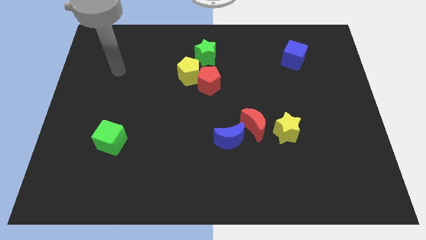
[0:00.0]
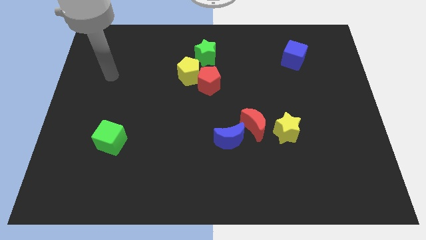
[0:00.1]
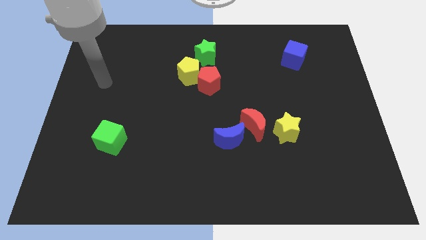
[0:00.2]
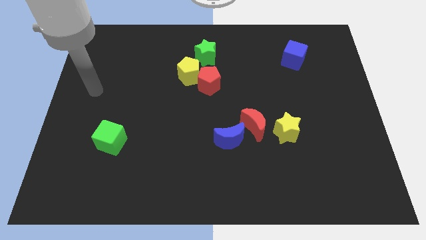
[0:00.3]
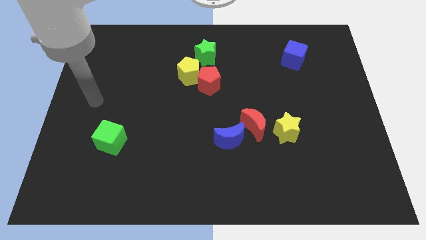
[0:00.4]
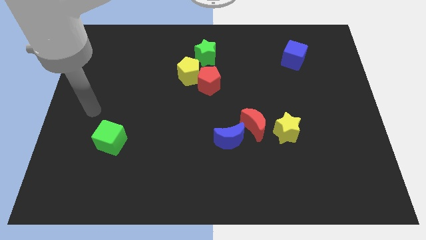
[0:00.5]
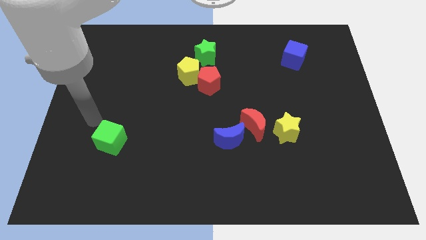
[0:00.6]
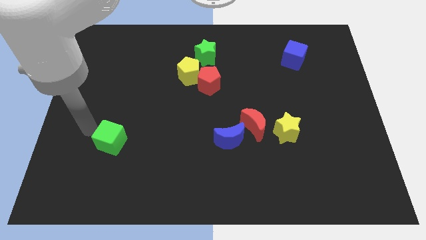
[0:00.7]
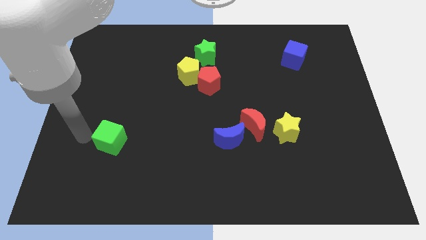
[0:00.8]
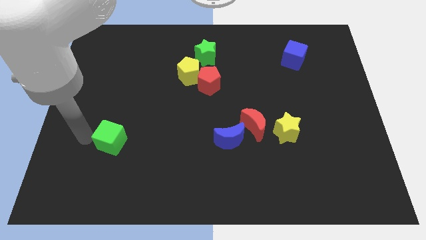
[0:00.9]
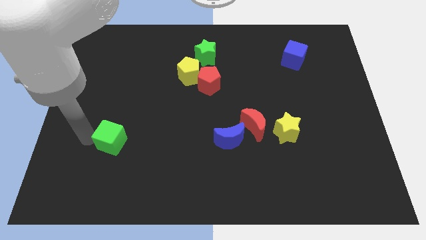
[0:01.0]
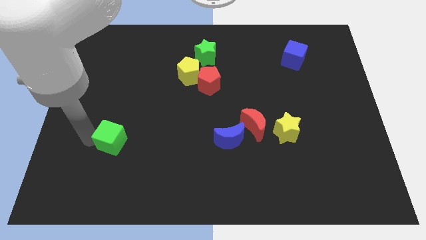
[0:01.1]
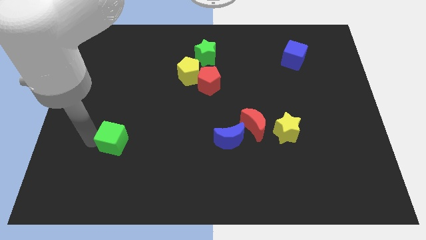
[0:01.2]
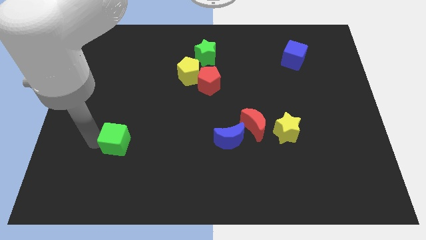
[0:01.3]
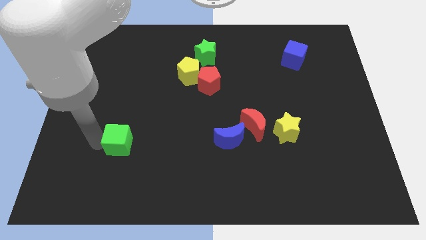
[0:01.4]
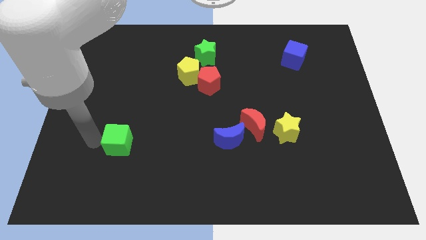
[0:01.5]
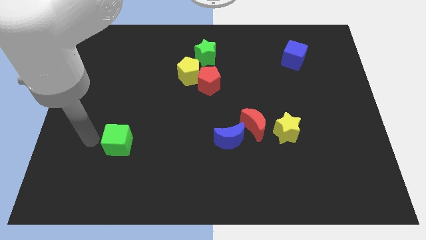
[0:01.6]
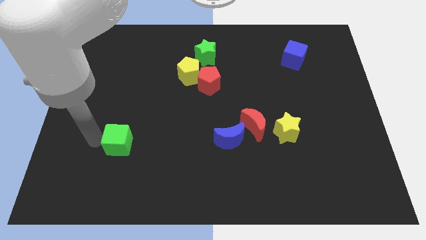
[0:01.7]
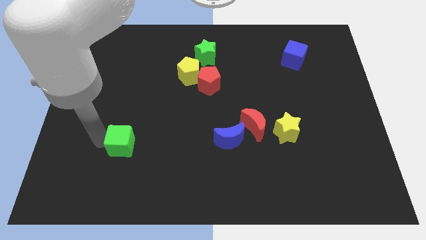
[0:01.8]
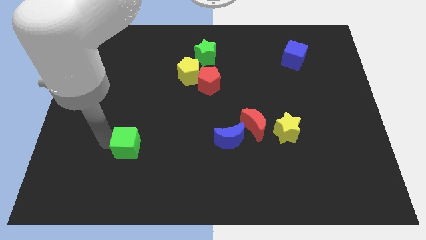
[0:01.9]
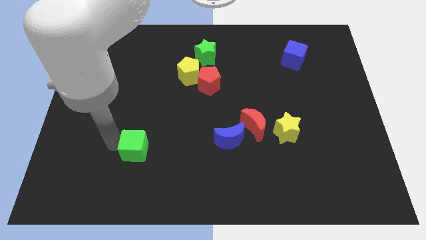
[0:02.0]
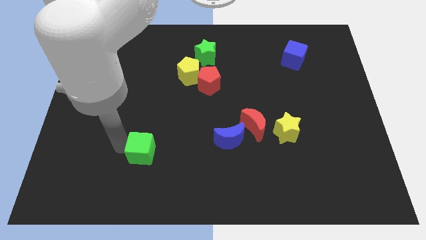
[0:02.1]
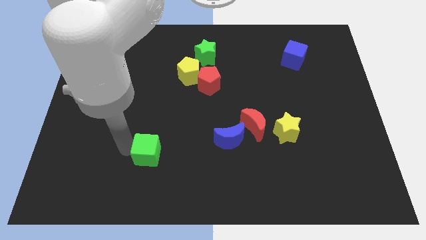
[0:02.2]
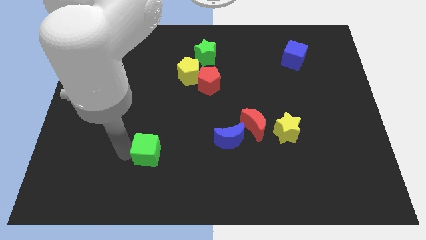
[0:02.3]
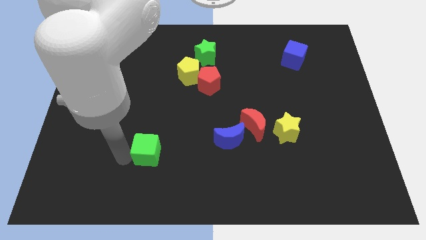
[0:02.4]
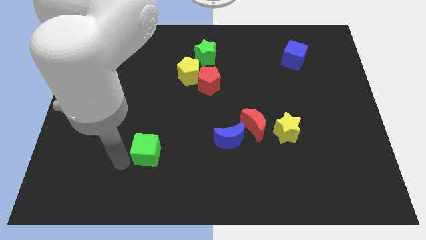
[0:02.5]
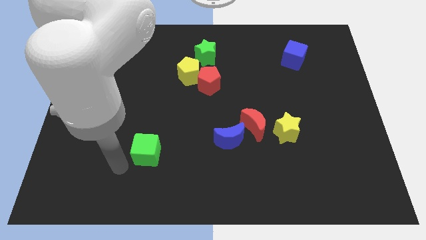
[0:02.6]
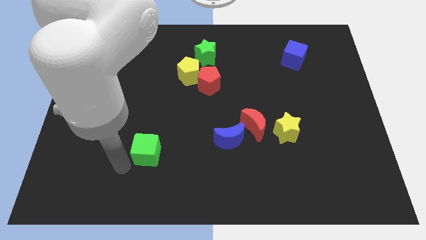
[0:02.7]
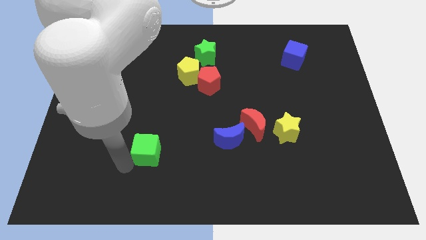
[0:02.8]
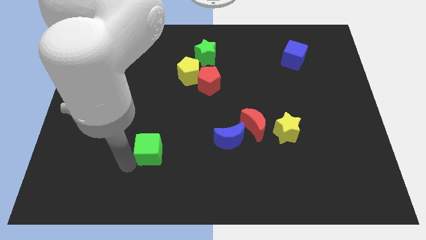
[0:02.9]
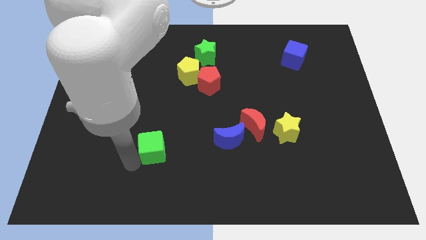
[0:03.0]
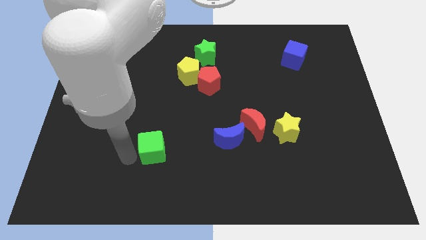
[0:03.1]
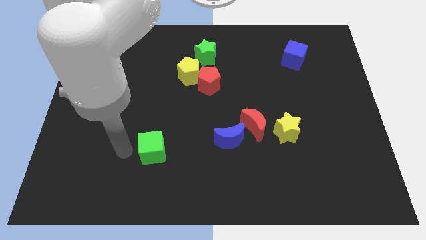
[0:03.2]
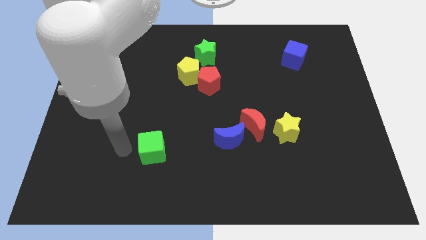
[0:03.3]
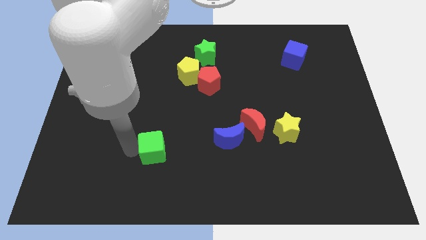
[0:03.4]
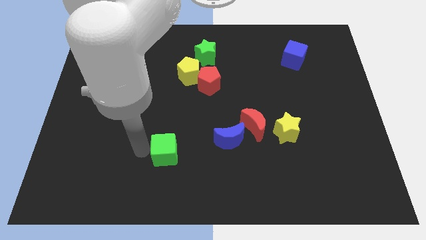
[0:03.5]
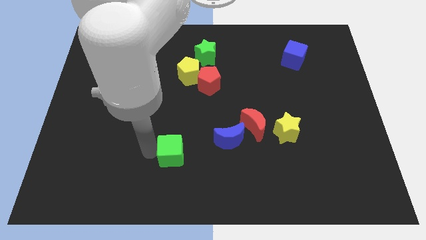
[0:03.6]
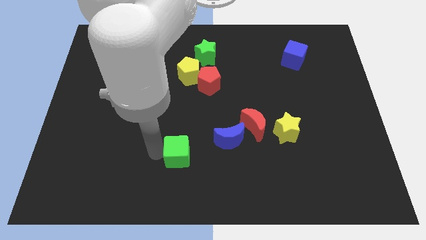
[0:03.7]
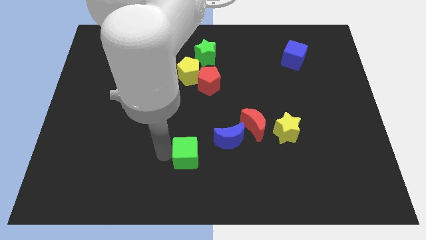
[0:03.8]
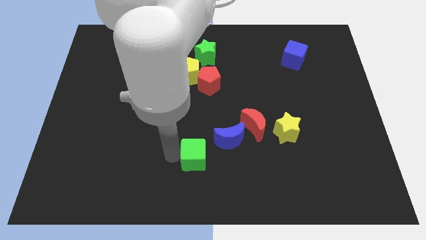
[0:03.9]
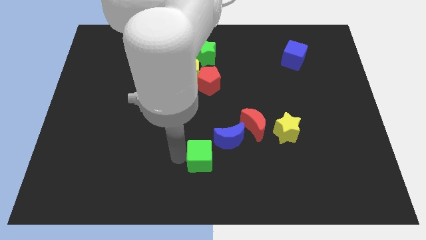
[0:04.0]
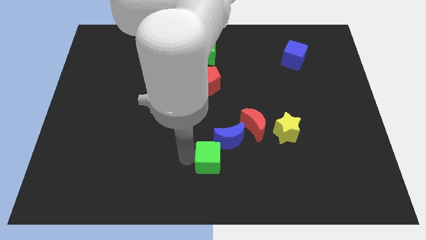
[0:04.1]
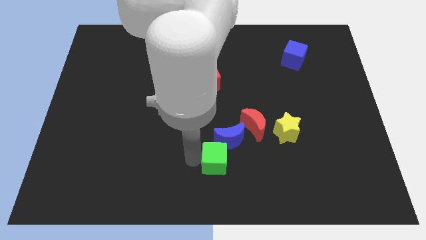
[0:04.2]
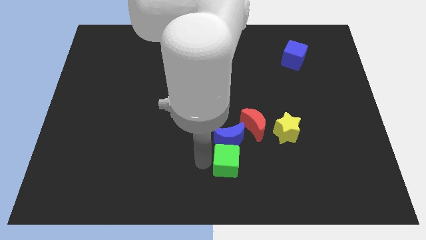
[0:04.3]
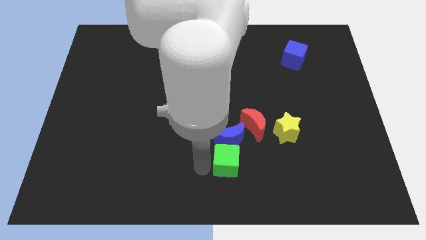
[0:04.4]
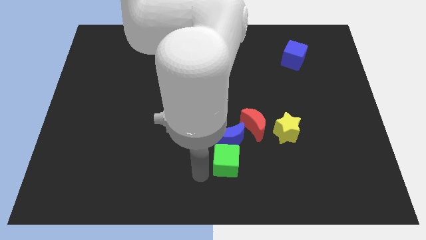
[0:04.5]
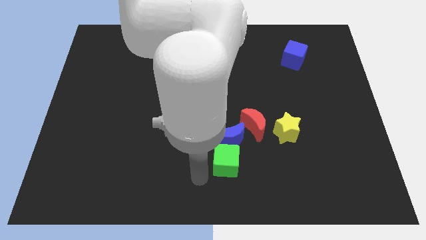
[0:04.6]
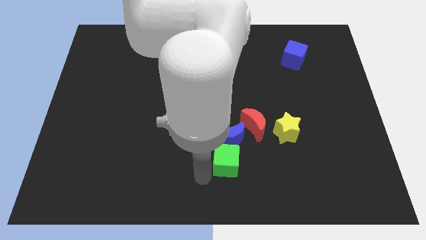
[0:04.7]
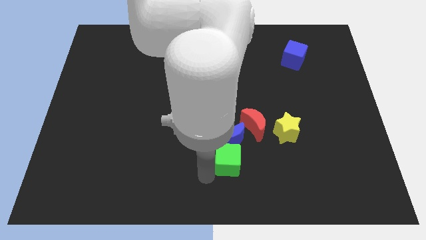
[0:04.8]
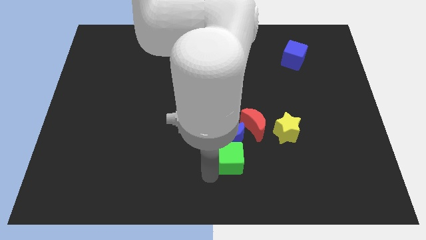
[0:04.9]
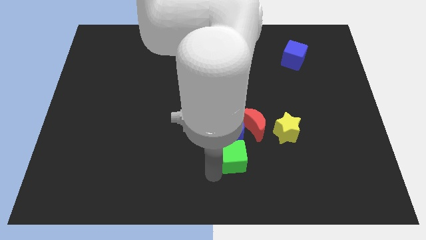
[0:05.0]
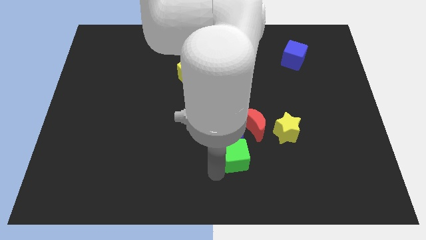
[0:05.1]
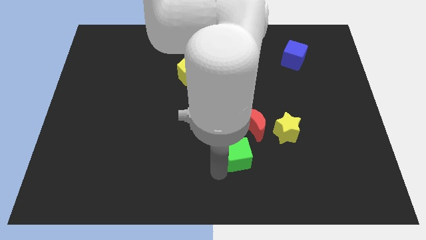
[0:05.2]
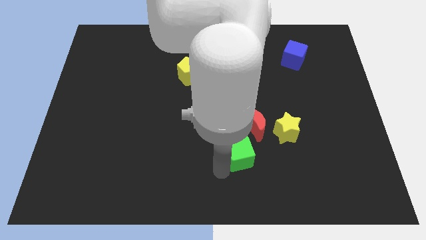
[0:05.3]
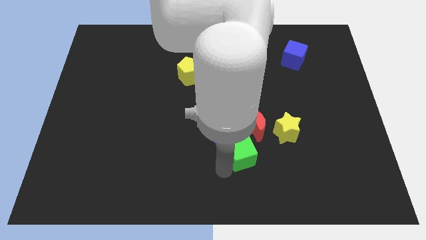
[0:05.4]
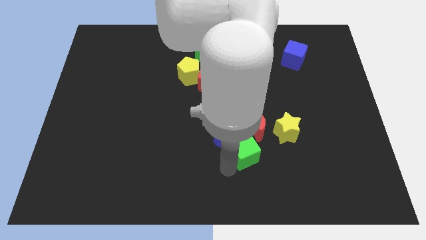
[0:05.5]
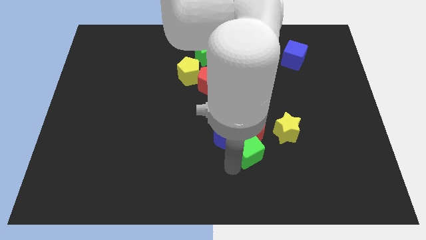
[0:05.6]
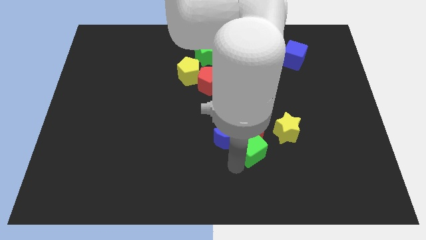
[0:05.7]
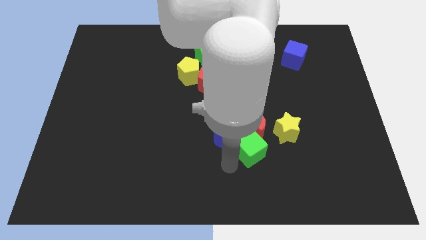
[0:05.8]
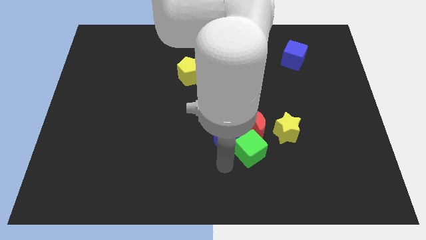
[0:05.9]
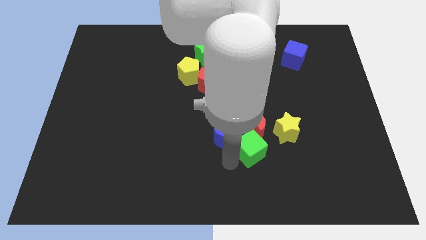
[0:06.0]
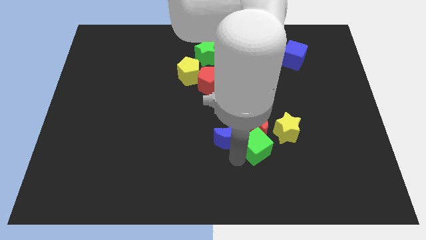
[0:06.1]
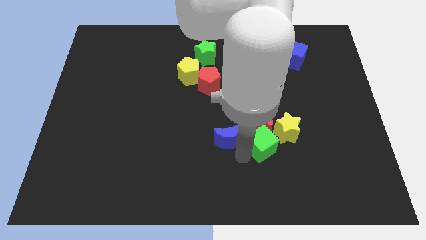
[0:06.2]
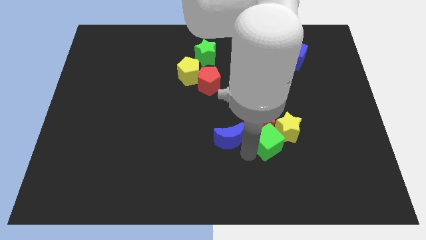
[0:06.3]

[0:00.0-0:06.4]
slide the green cube to the yellow star

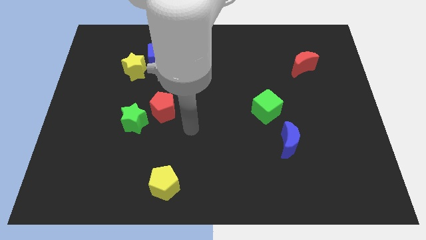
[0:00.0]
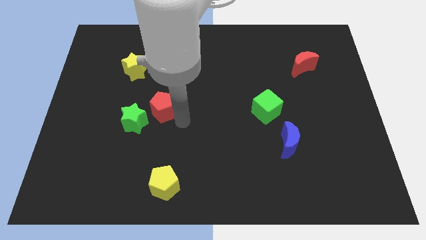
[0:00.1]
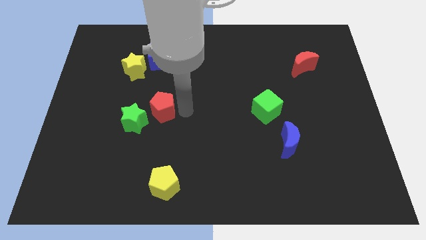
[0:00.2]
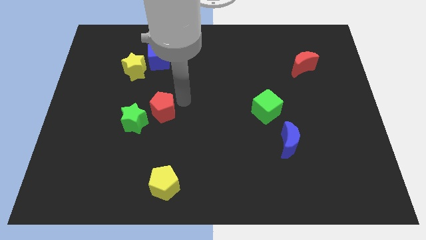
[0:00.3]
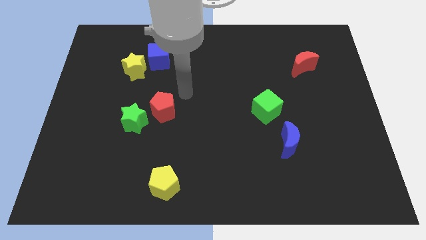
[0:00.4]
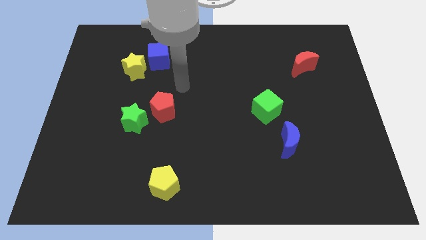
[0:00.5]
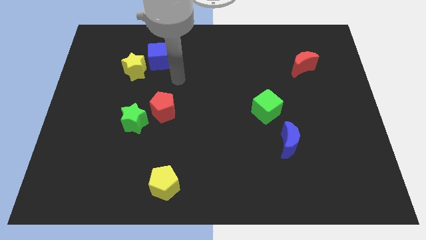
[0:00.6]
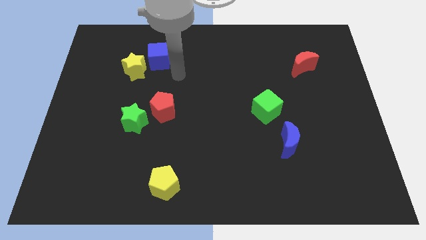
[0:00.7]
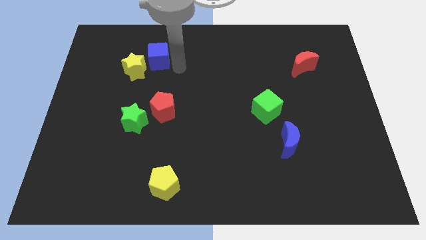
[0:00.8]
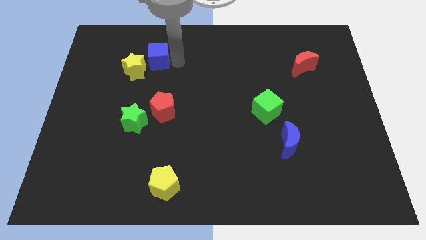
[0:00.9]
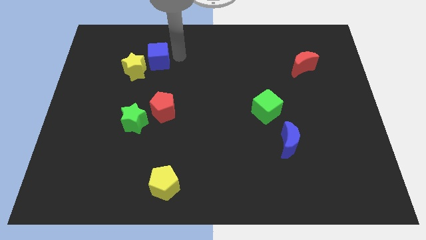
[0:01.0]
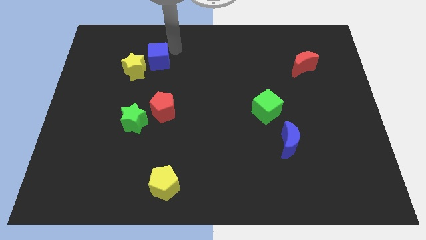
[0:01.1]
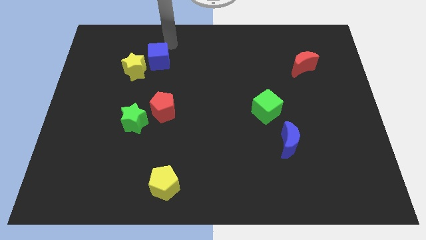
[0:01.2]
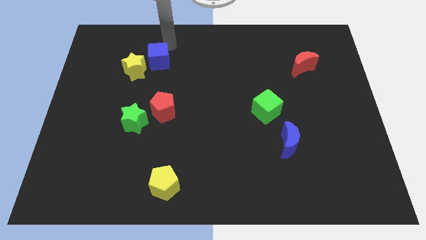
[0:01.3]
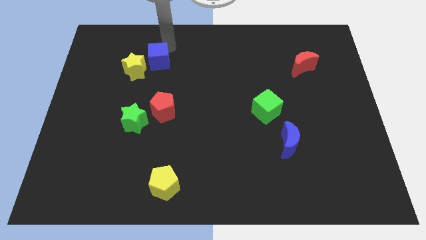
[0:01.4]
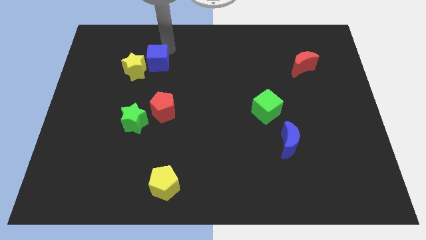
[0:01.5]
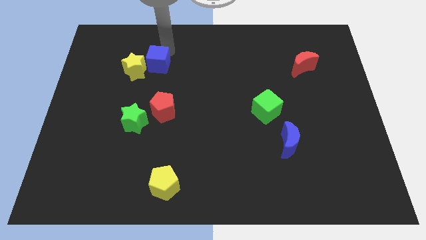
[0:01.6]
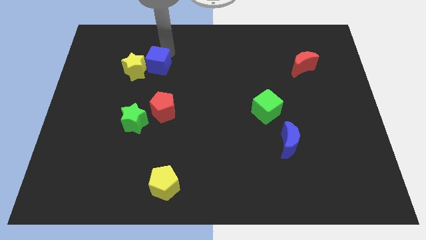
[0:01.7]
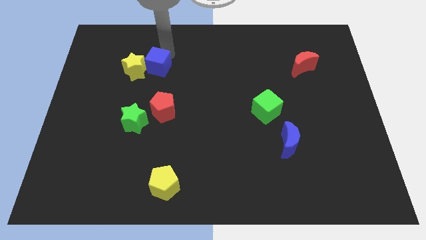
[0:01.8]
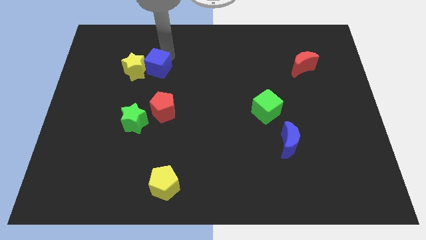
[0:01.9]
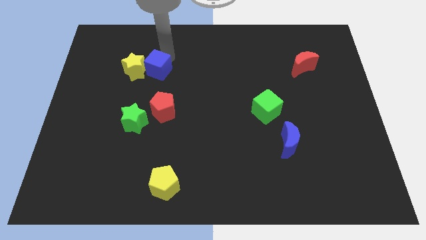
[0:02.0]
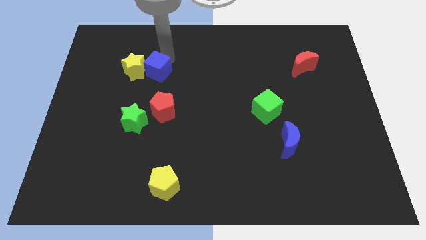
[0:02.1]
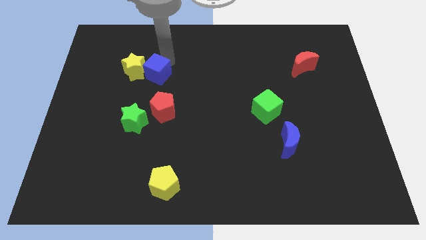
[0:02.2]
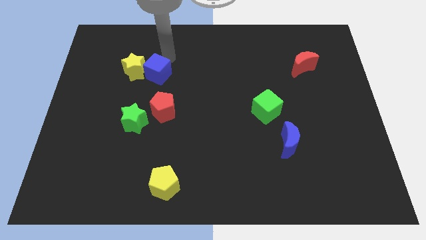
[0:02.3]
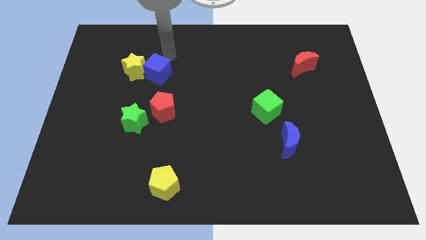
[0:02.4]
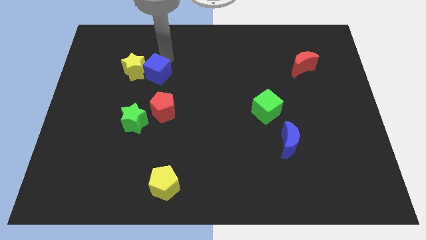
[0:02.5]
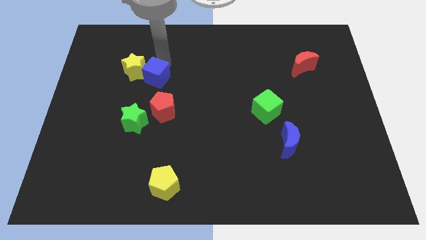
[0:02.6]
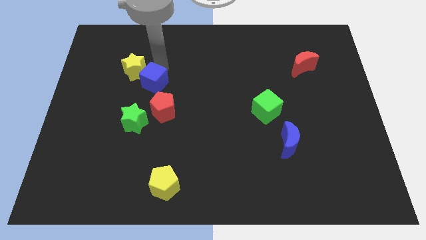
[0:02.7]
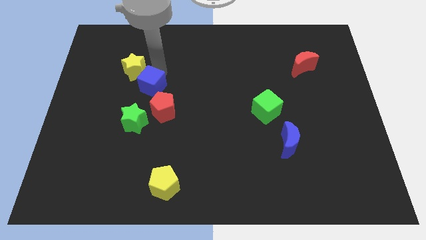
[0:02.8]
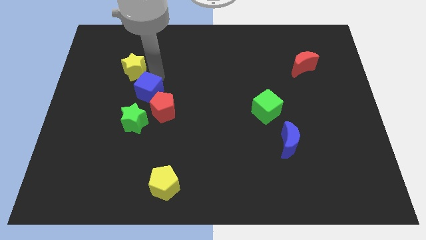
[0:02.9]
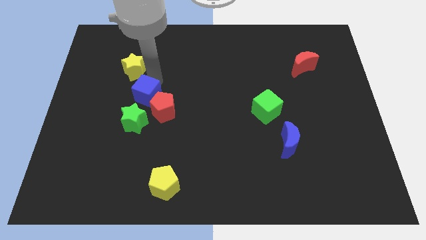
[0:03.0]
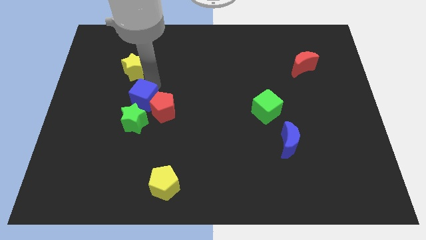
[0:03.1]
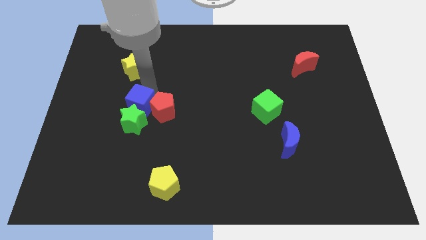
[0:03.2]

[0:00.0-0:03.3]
push the blue cube close to the green star
